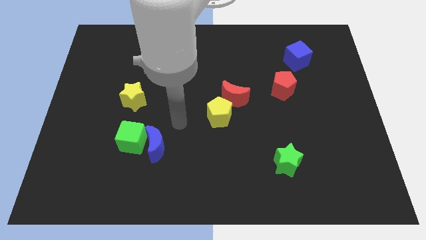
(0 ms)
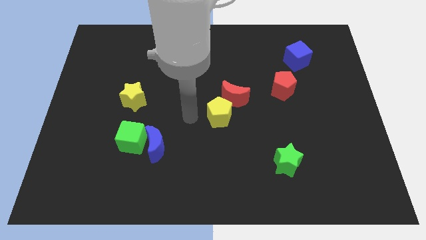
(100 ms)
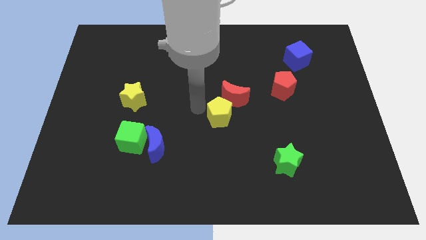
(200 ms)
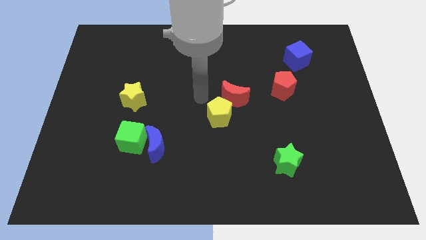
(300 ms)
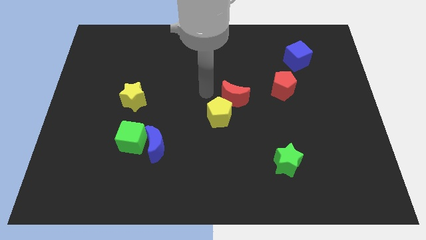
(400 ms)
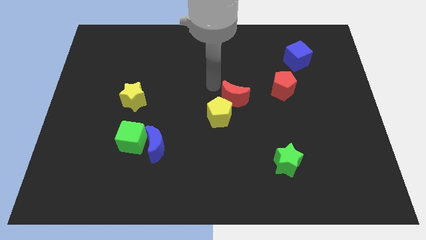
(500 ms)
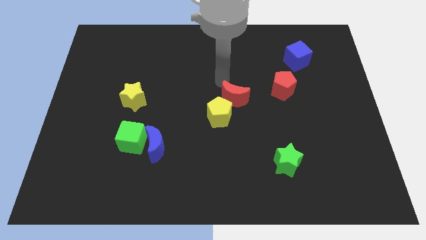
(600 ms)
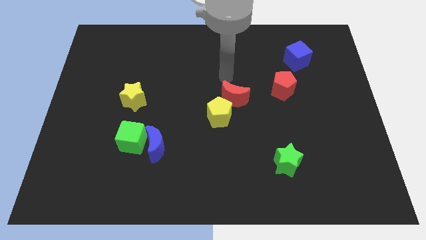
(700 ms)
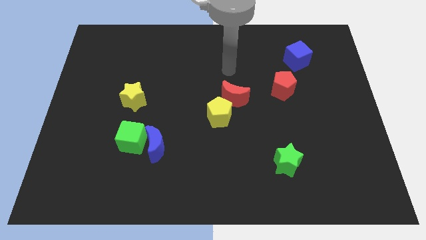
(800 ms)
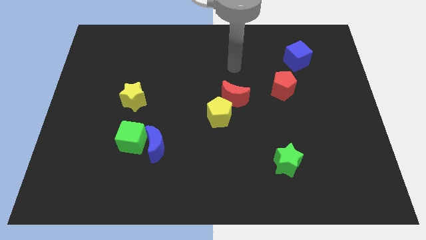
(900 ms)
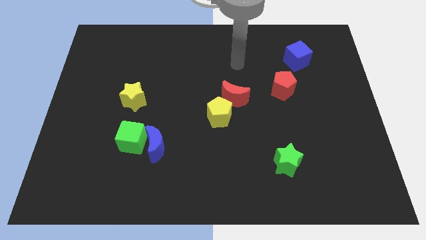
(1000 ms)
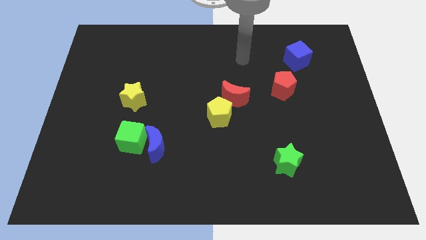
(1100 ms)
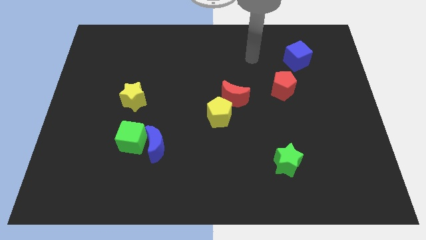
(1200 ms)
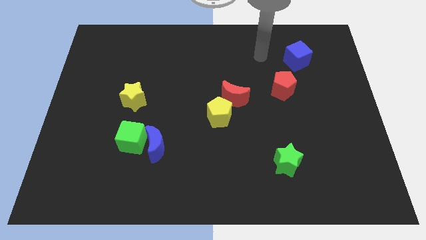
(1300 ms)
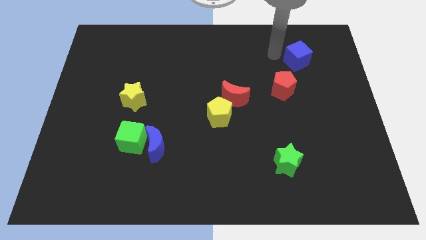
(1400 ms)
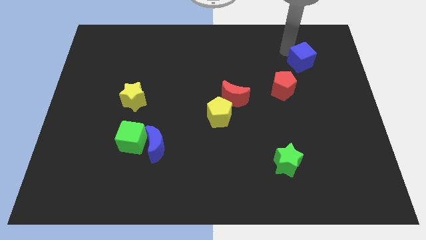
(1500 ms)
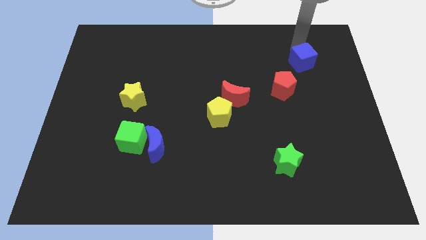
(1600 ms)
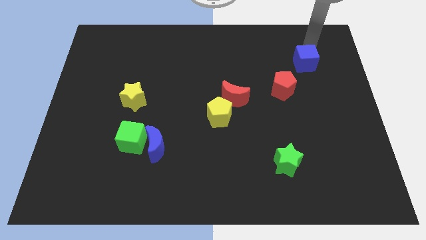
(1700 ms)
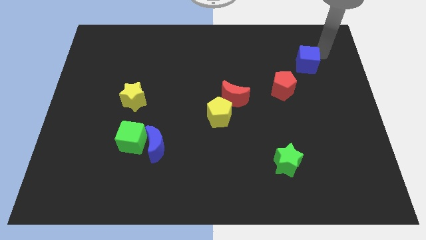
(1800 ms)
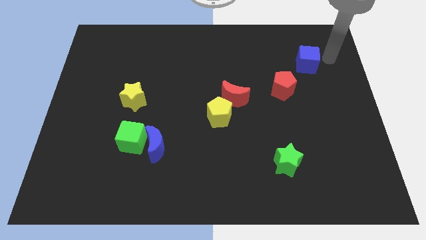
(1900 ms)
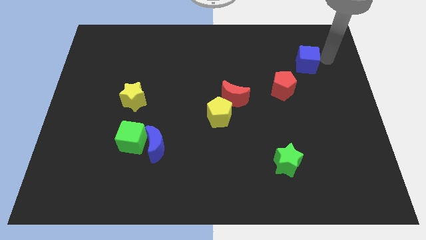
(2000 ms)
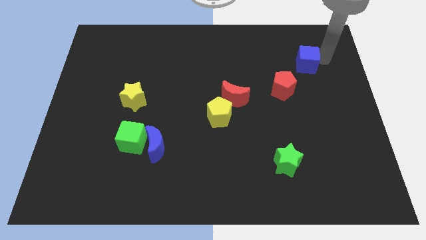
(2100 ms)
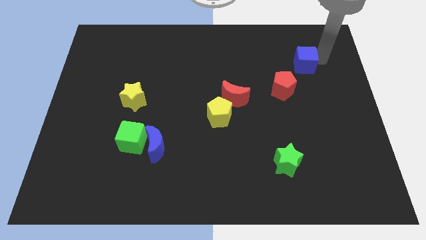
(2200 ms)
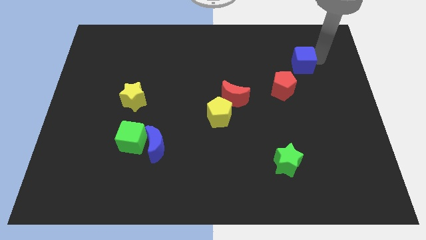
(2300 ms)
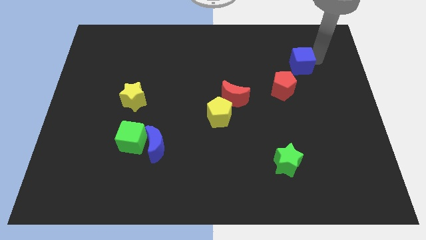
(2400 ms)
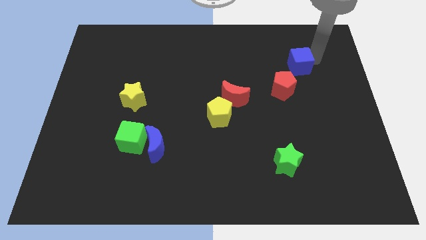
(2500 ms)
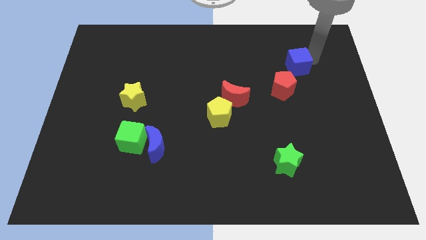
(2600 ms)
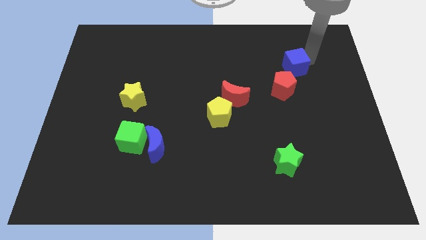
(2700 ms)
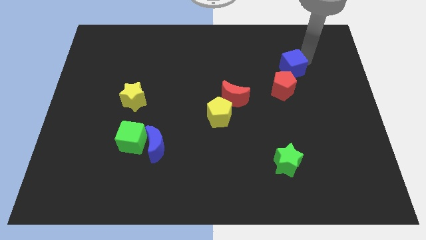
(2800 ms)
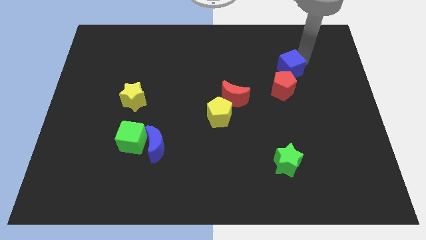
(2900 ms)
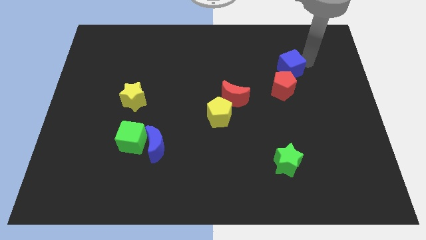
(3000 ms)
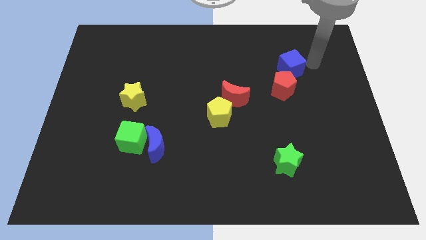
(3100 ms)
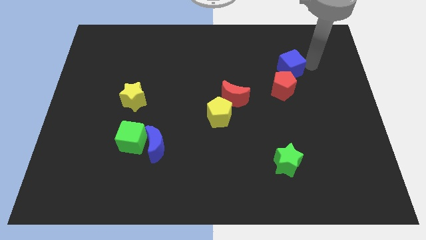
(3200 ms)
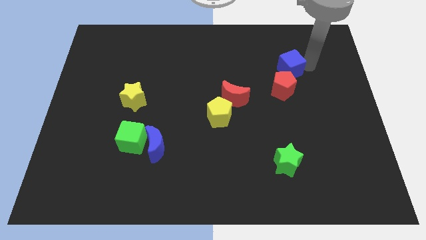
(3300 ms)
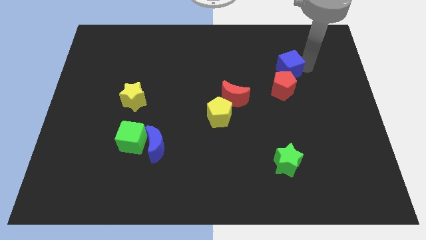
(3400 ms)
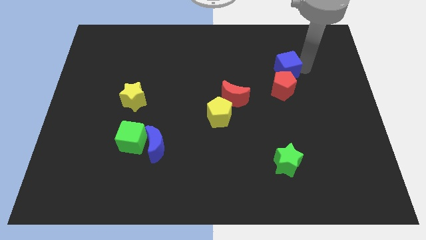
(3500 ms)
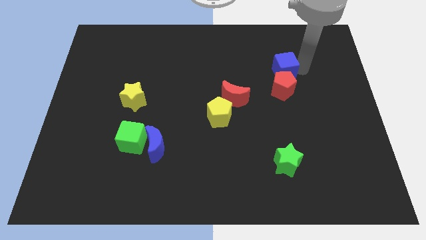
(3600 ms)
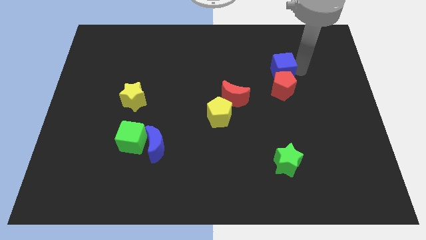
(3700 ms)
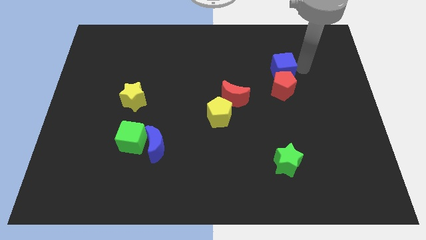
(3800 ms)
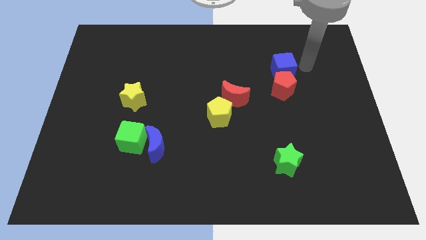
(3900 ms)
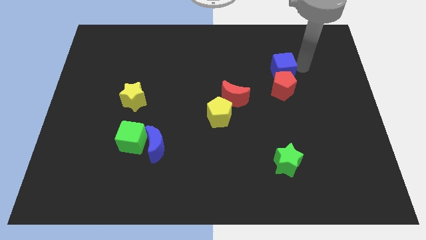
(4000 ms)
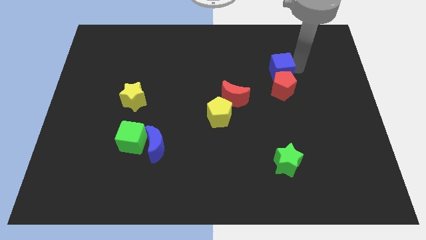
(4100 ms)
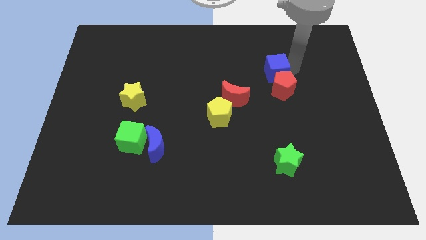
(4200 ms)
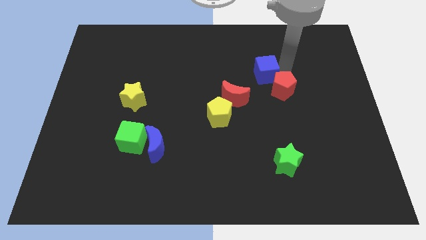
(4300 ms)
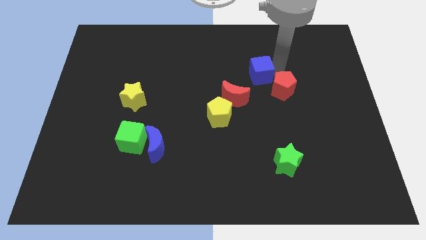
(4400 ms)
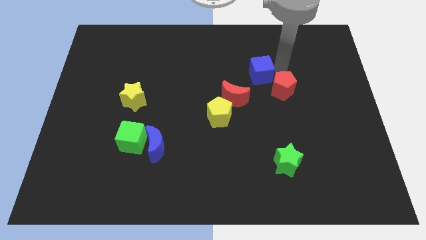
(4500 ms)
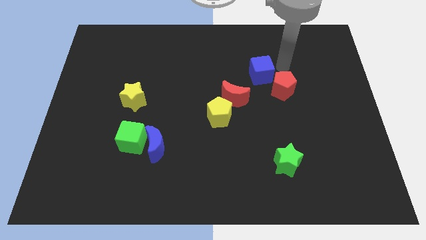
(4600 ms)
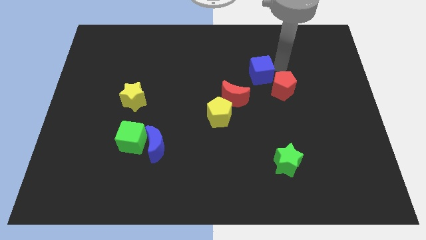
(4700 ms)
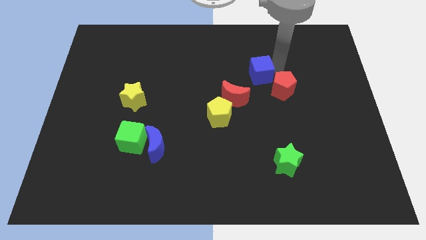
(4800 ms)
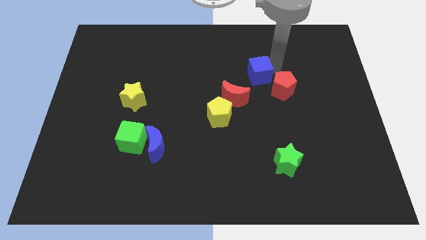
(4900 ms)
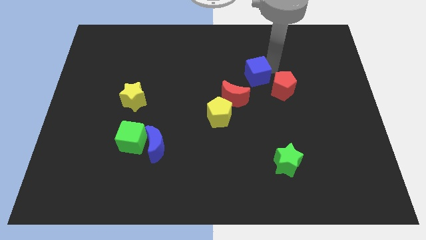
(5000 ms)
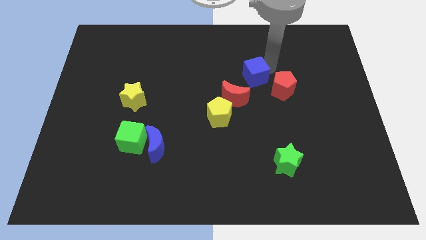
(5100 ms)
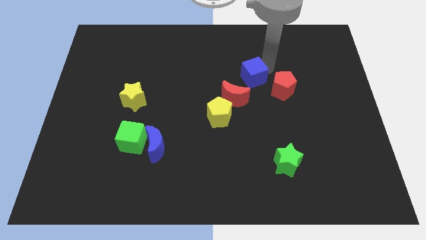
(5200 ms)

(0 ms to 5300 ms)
push the blue cube to the middle of the board

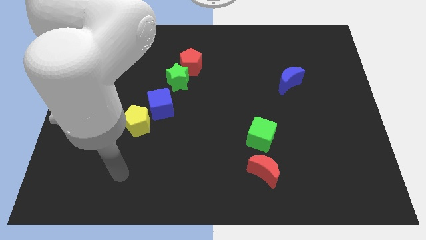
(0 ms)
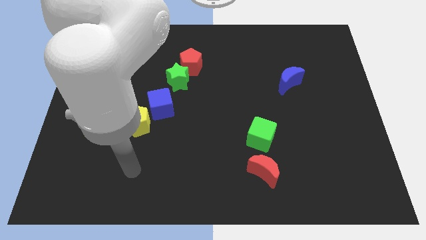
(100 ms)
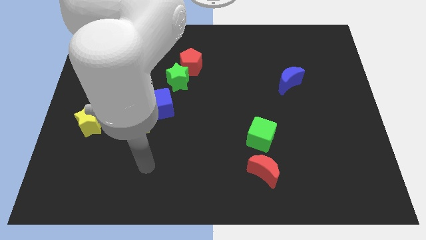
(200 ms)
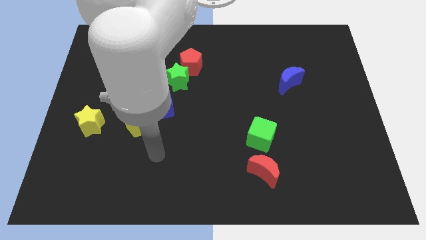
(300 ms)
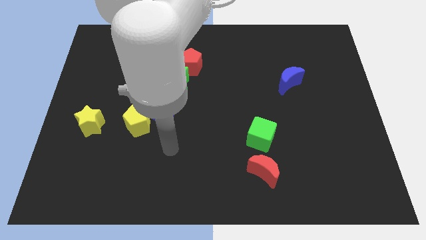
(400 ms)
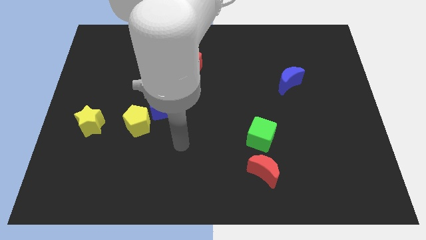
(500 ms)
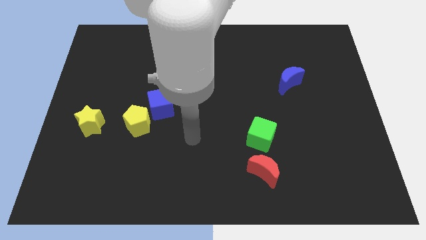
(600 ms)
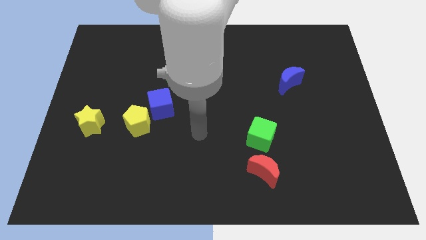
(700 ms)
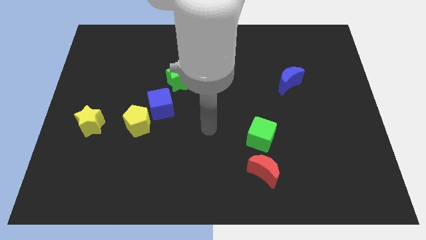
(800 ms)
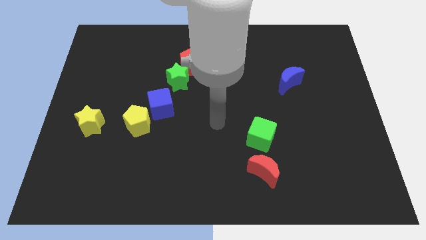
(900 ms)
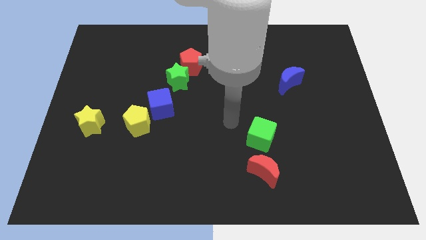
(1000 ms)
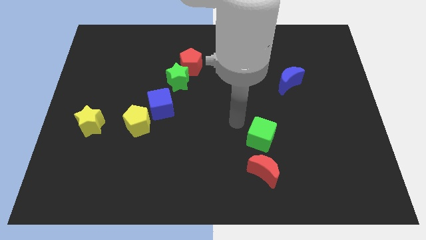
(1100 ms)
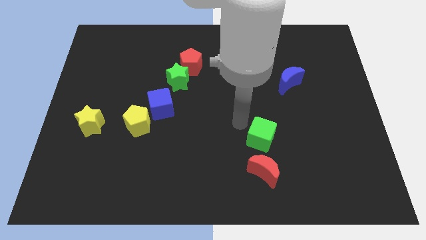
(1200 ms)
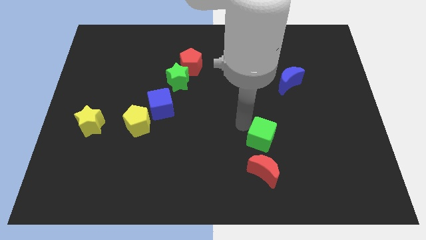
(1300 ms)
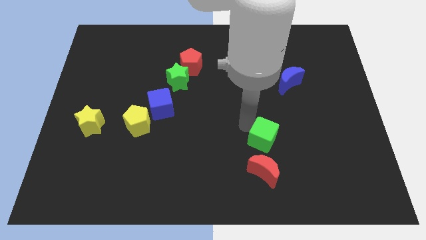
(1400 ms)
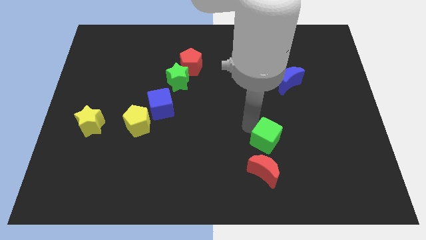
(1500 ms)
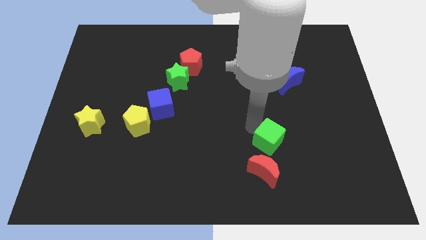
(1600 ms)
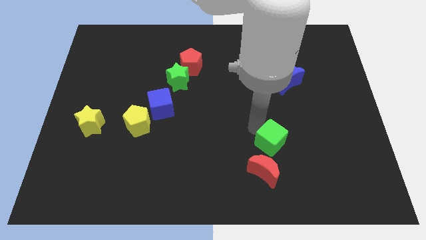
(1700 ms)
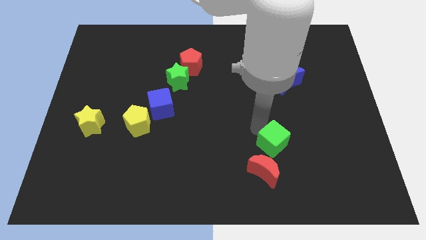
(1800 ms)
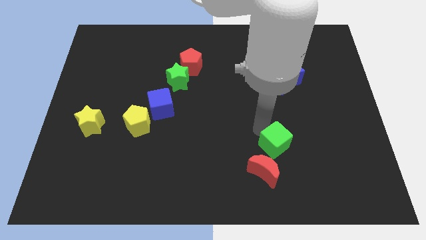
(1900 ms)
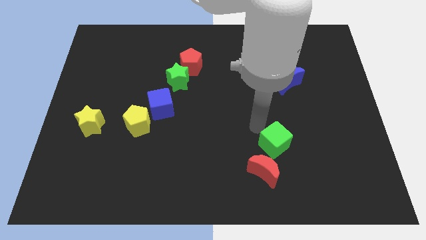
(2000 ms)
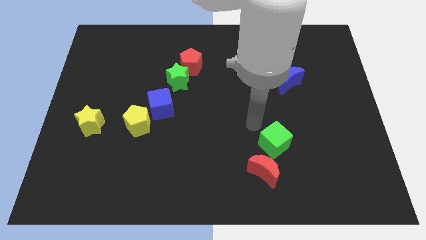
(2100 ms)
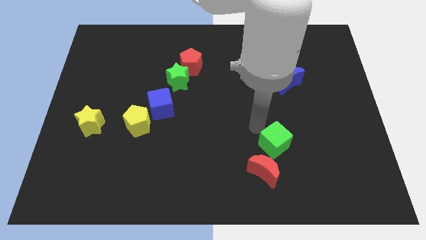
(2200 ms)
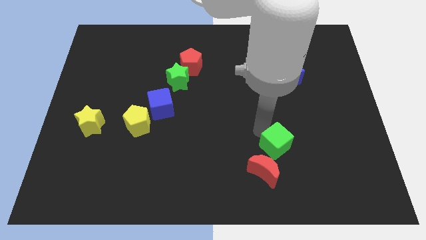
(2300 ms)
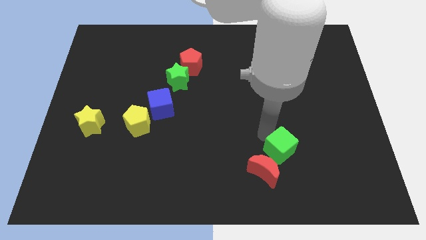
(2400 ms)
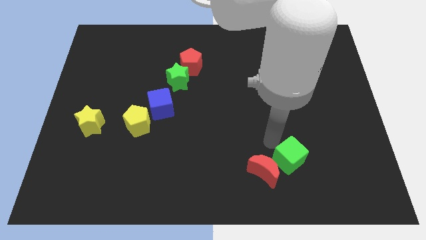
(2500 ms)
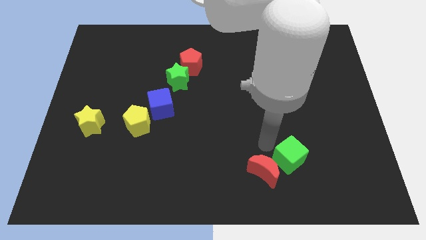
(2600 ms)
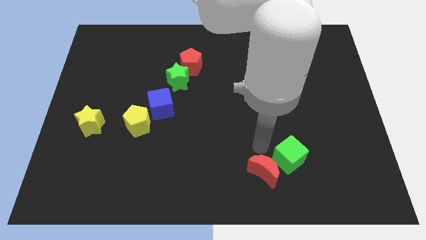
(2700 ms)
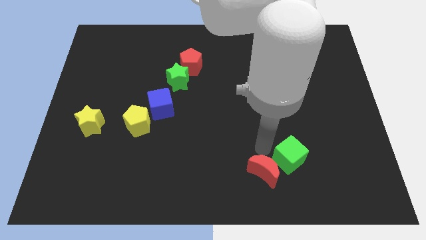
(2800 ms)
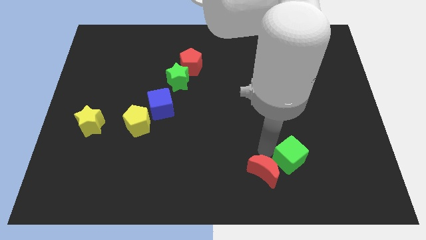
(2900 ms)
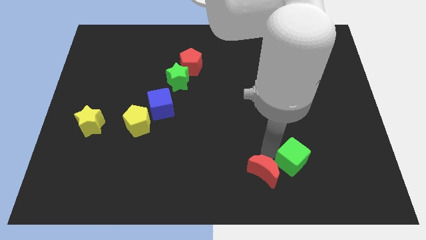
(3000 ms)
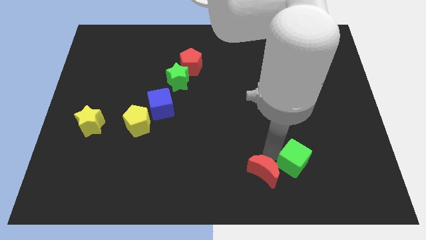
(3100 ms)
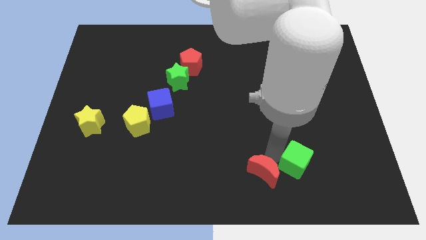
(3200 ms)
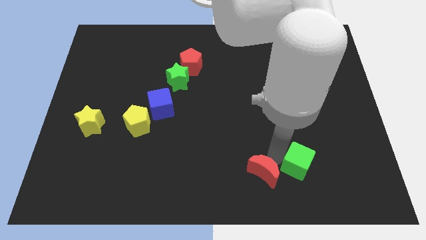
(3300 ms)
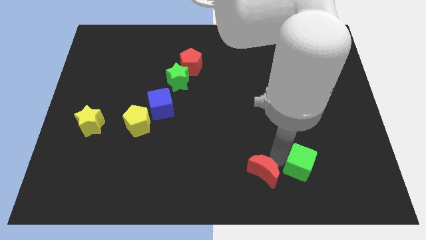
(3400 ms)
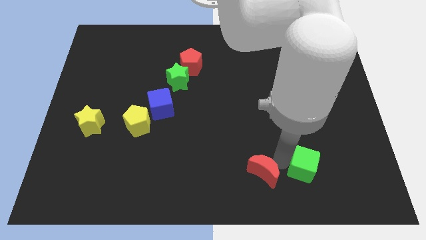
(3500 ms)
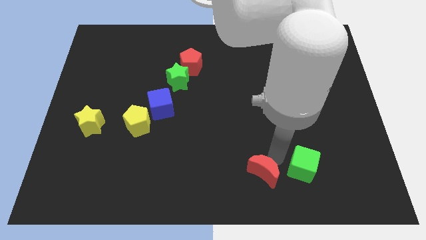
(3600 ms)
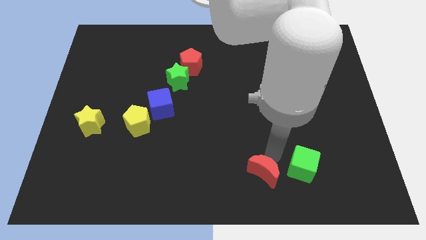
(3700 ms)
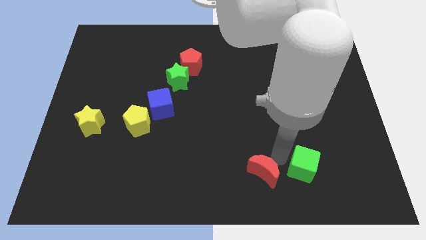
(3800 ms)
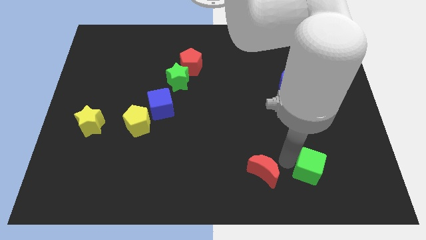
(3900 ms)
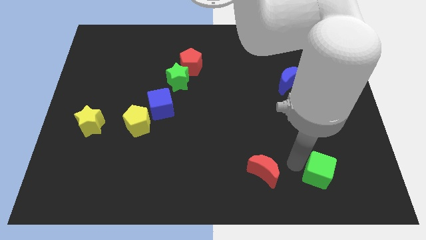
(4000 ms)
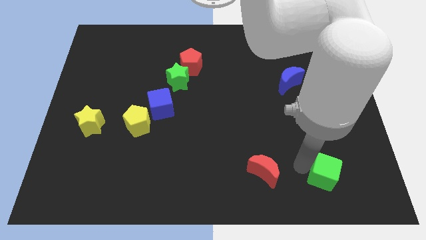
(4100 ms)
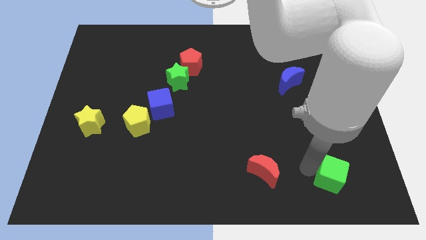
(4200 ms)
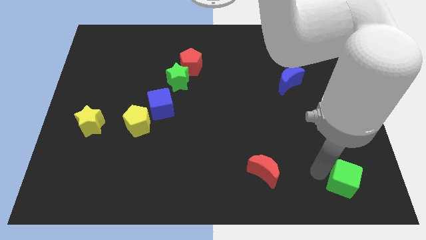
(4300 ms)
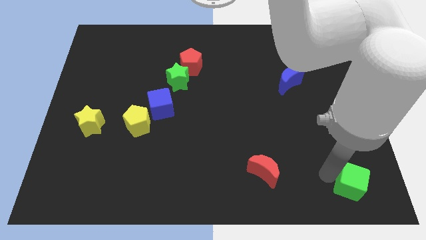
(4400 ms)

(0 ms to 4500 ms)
push the green cube to the bottom right of the board
